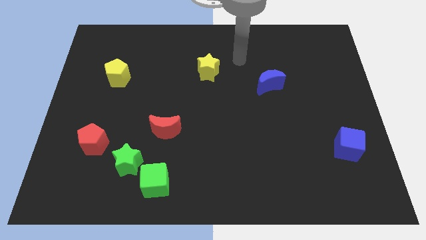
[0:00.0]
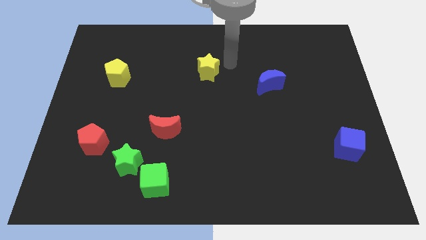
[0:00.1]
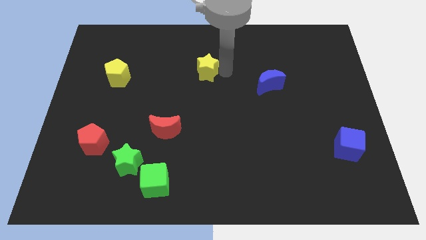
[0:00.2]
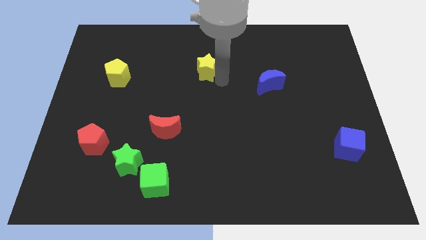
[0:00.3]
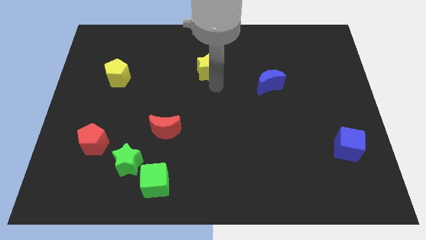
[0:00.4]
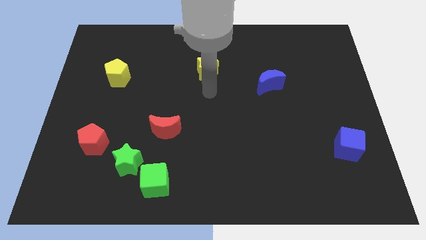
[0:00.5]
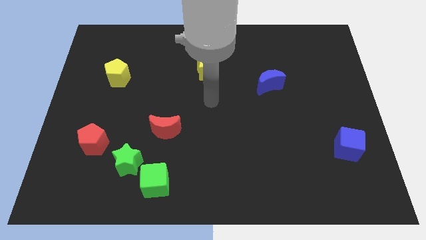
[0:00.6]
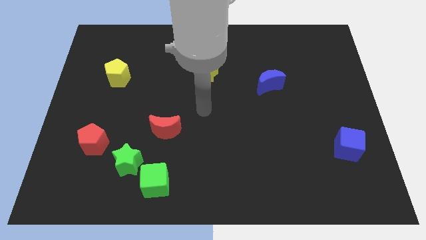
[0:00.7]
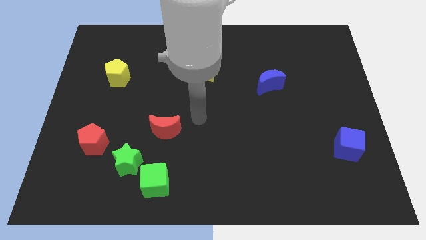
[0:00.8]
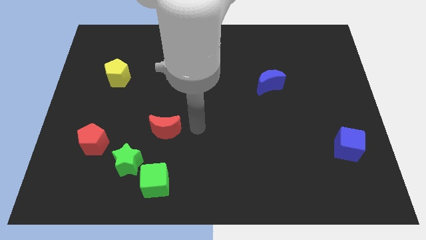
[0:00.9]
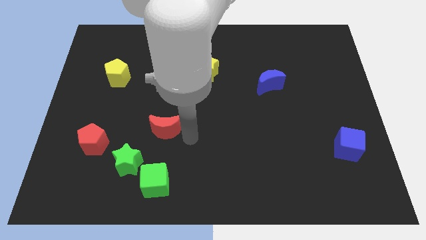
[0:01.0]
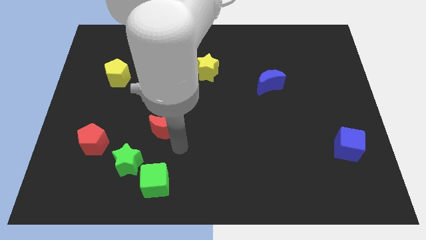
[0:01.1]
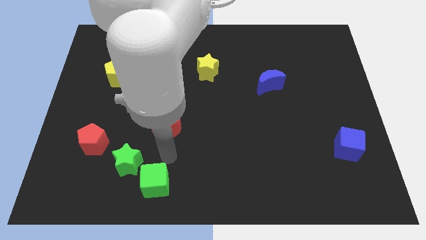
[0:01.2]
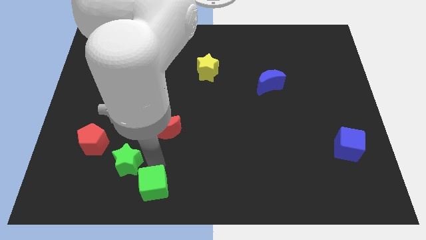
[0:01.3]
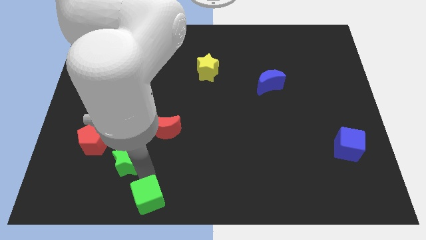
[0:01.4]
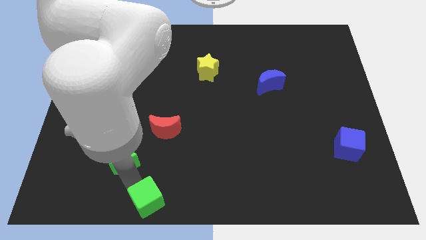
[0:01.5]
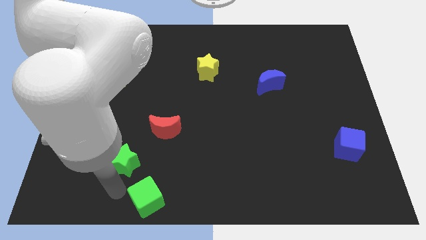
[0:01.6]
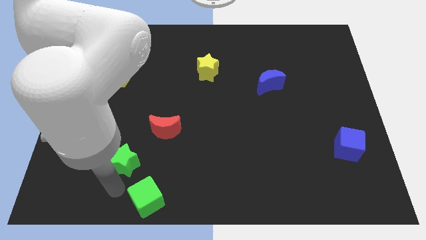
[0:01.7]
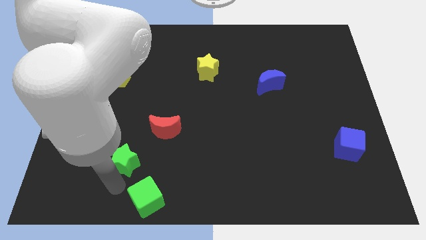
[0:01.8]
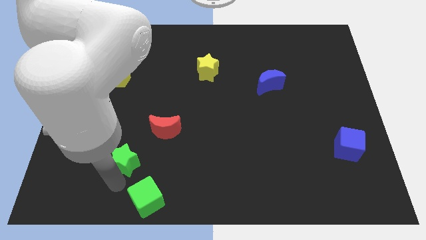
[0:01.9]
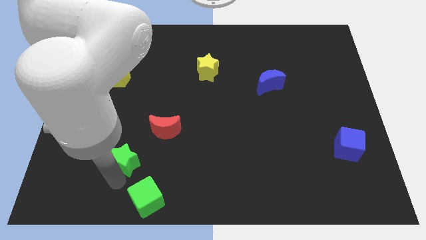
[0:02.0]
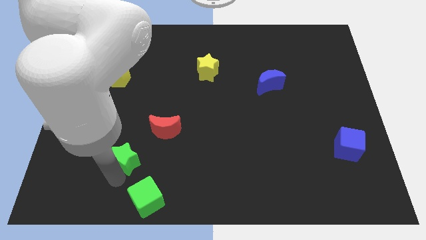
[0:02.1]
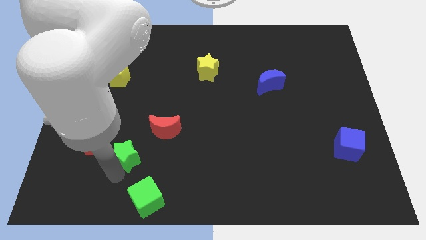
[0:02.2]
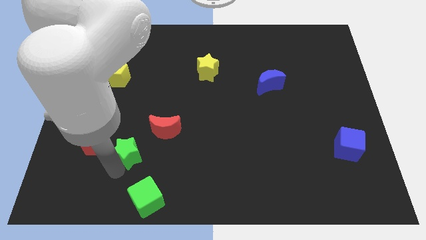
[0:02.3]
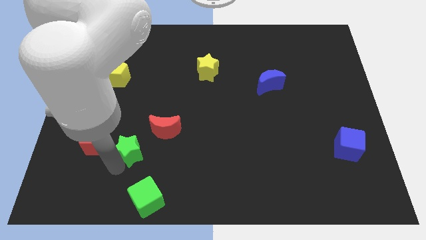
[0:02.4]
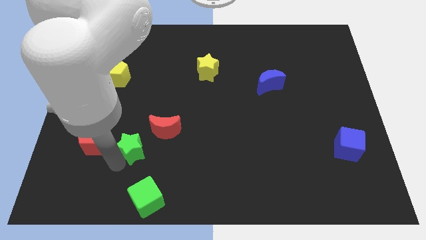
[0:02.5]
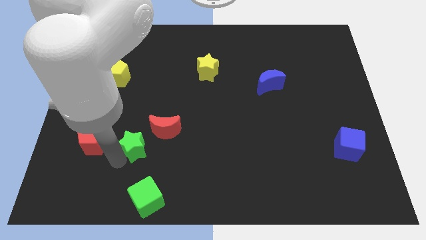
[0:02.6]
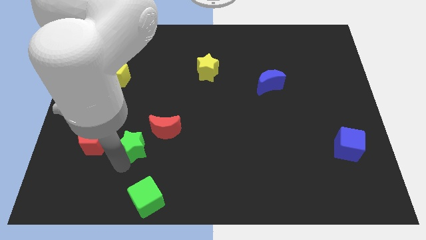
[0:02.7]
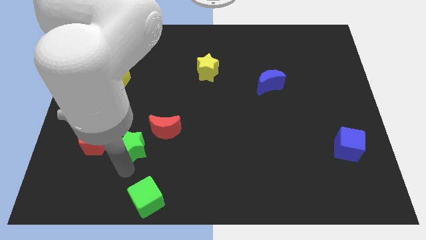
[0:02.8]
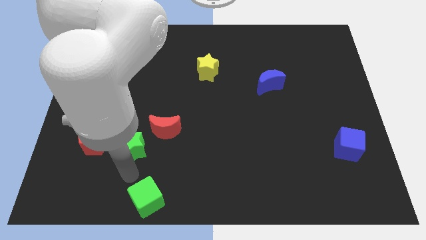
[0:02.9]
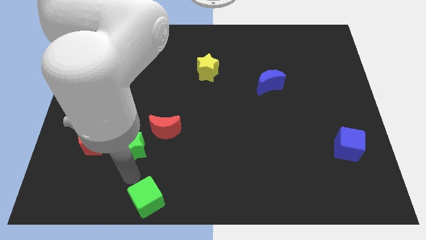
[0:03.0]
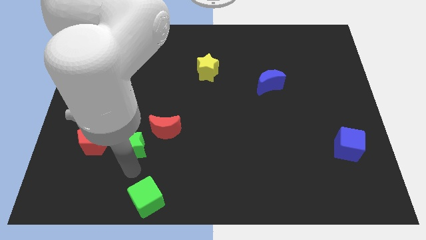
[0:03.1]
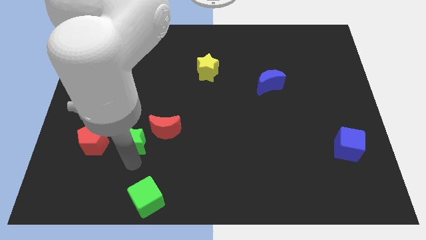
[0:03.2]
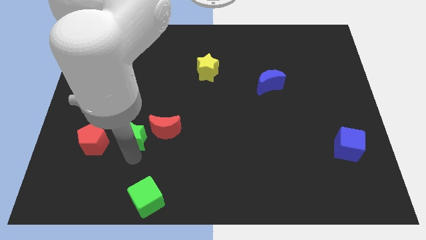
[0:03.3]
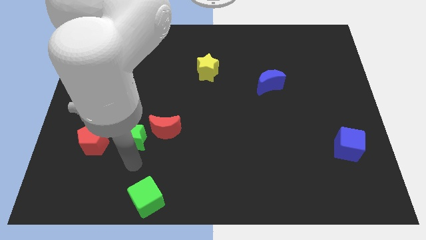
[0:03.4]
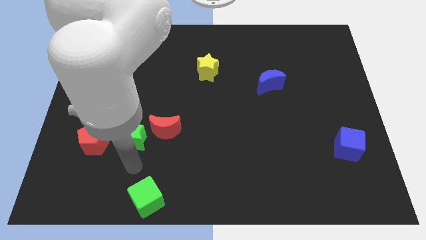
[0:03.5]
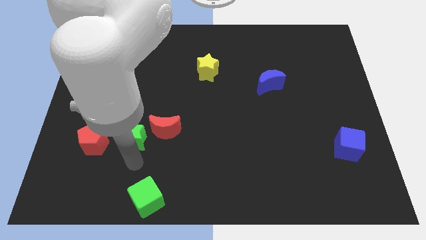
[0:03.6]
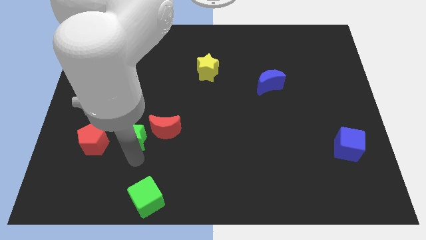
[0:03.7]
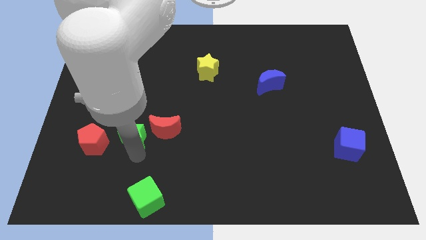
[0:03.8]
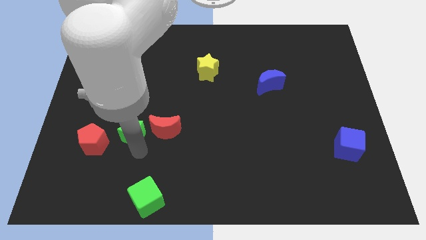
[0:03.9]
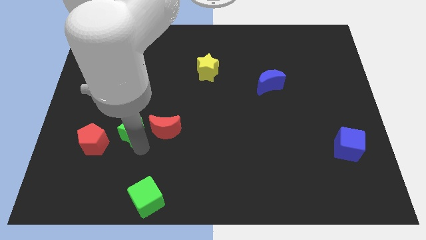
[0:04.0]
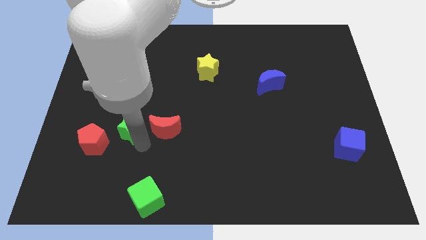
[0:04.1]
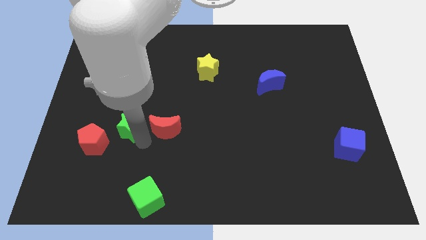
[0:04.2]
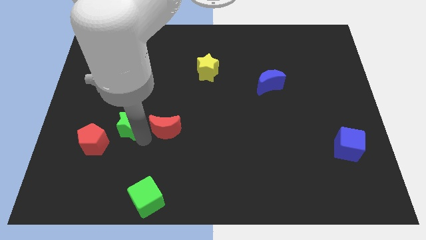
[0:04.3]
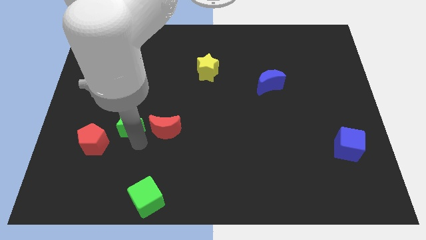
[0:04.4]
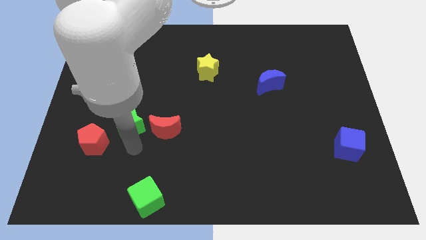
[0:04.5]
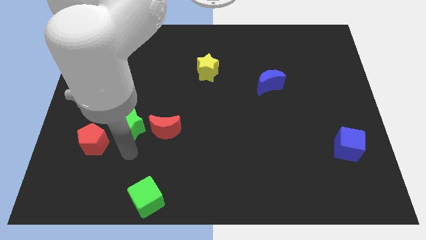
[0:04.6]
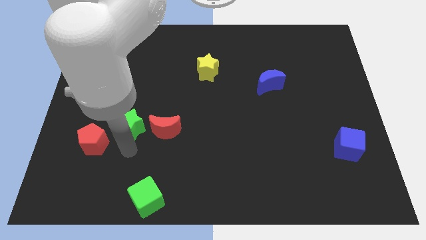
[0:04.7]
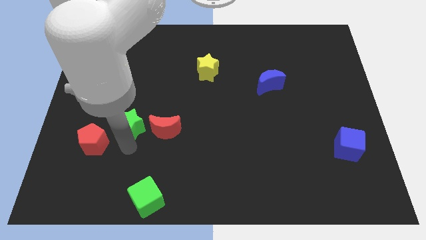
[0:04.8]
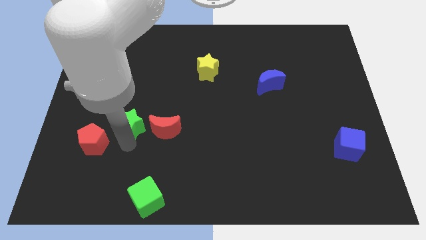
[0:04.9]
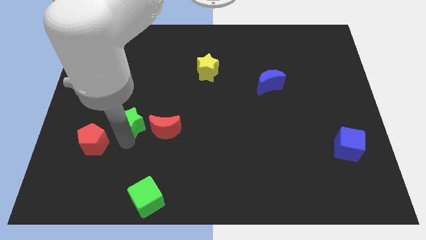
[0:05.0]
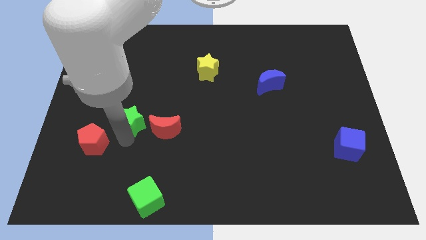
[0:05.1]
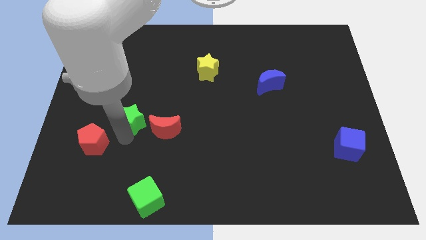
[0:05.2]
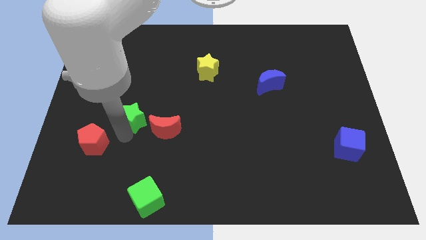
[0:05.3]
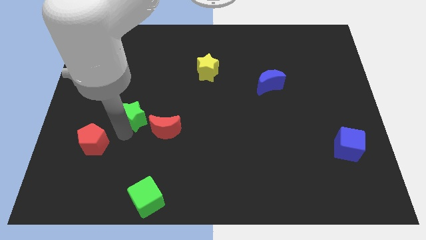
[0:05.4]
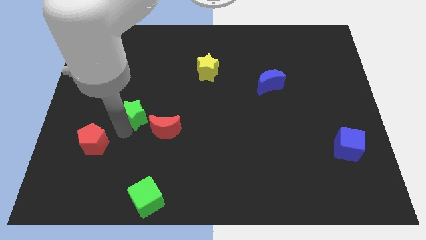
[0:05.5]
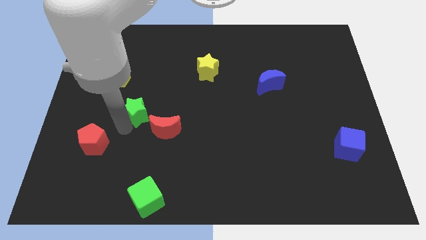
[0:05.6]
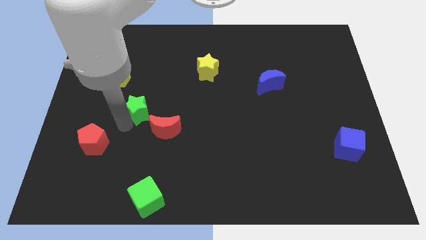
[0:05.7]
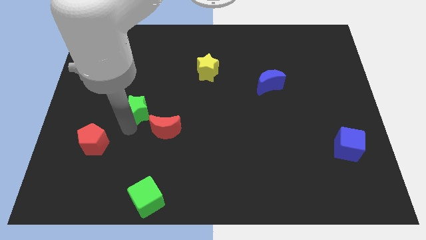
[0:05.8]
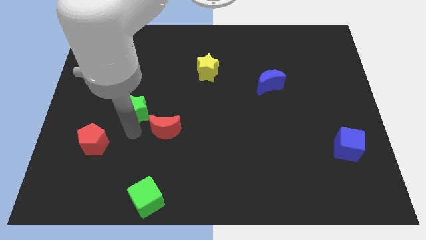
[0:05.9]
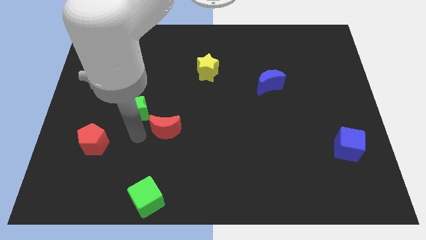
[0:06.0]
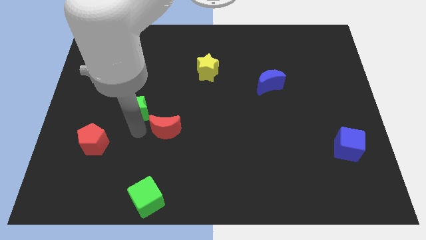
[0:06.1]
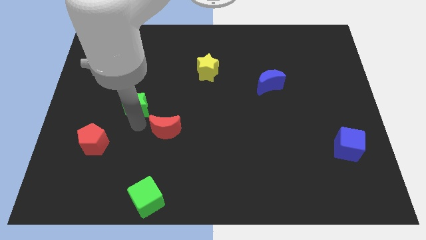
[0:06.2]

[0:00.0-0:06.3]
put the green star to the bottom right of the yellow pentagon

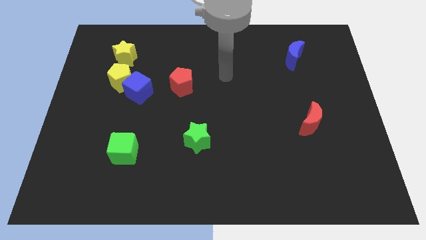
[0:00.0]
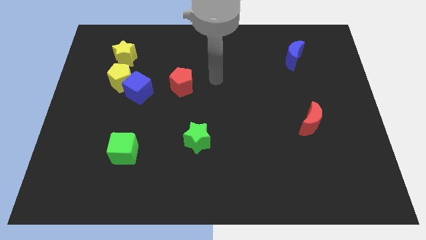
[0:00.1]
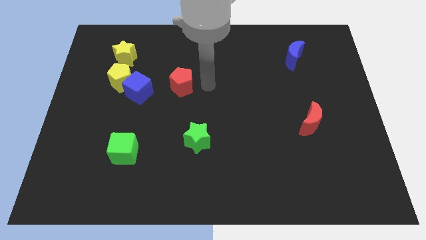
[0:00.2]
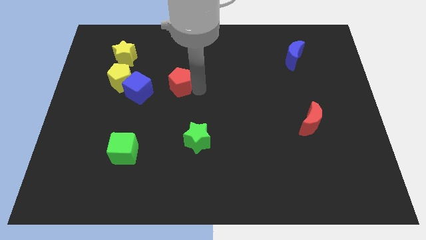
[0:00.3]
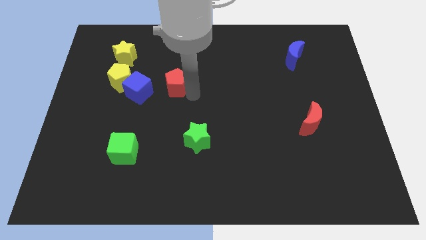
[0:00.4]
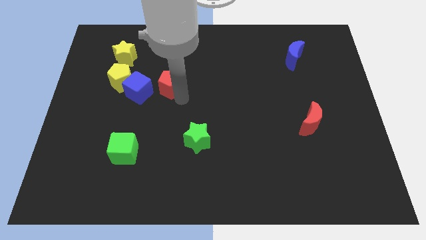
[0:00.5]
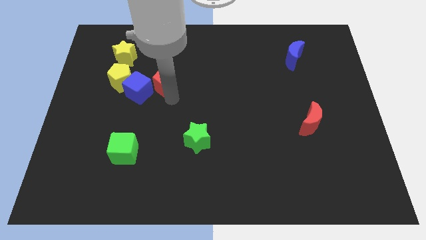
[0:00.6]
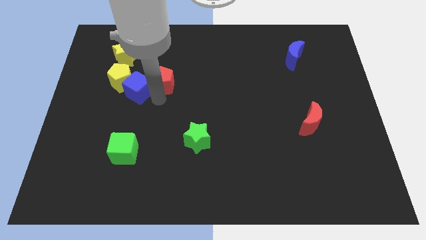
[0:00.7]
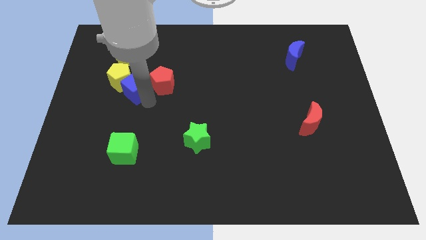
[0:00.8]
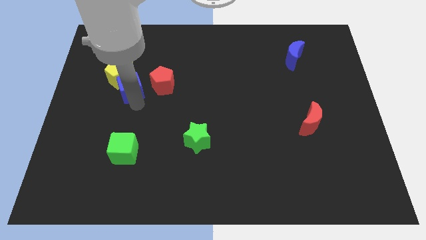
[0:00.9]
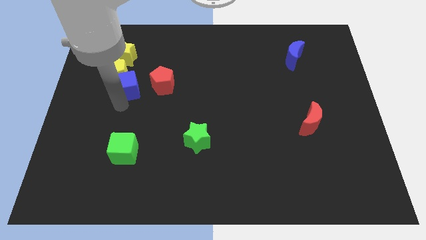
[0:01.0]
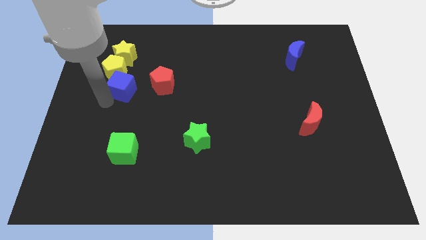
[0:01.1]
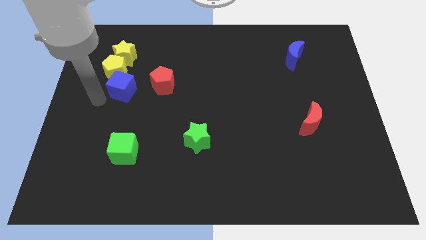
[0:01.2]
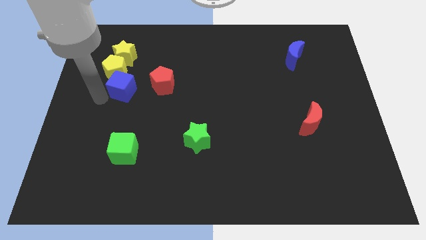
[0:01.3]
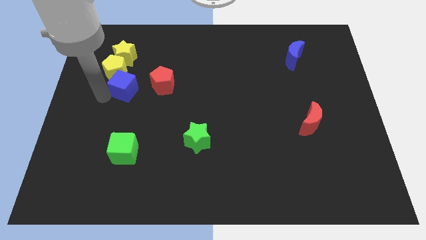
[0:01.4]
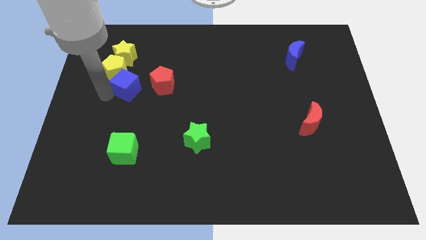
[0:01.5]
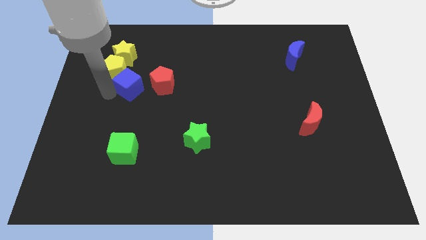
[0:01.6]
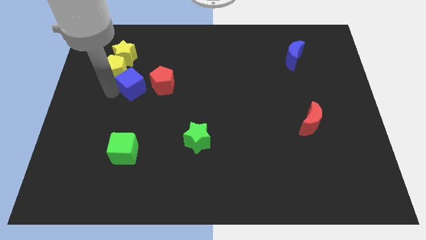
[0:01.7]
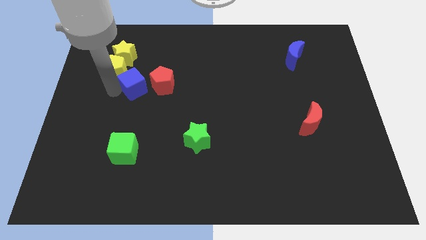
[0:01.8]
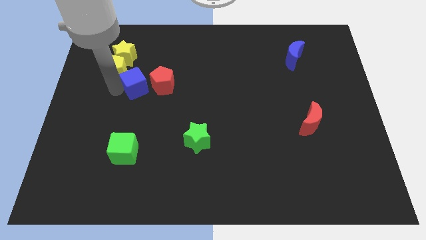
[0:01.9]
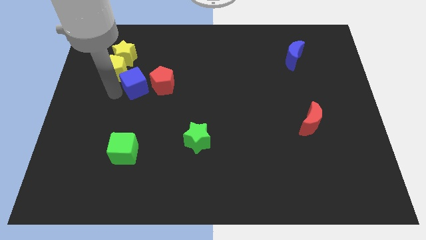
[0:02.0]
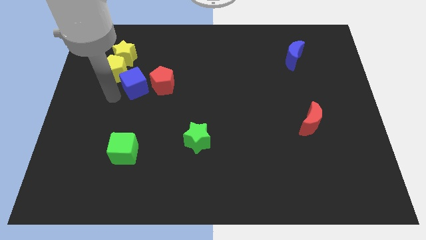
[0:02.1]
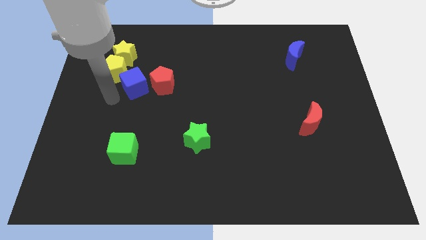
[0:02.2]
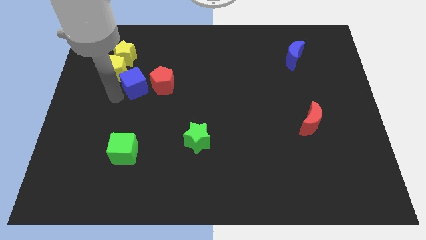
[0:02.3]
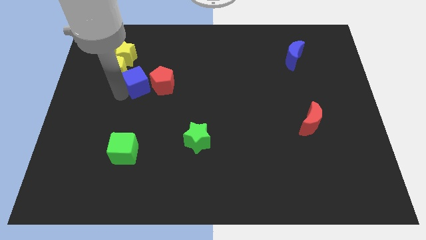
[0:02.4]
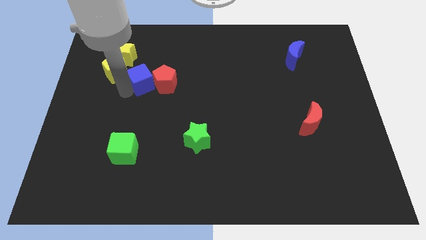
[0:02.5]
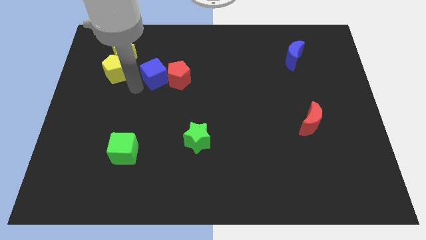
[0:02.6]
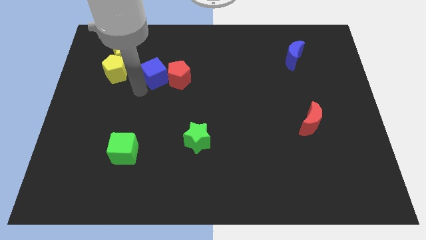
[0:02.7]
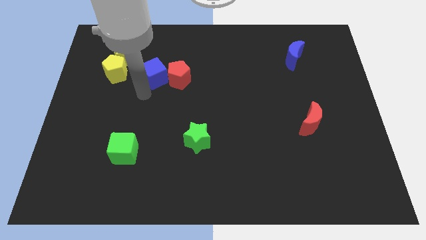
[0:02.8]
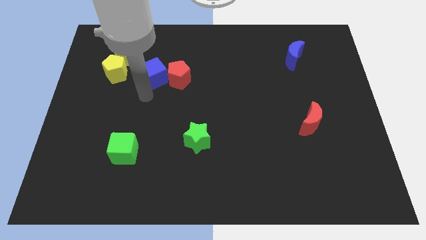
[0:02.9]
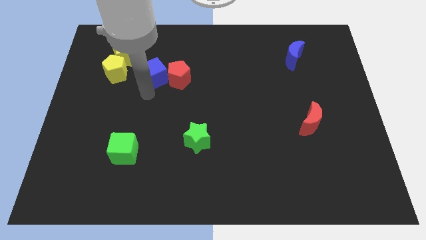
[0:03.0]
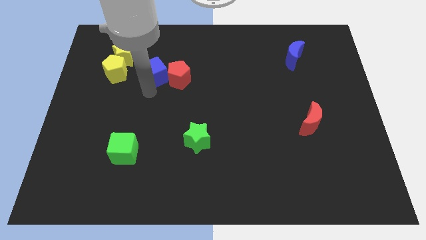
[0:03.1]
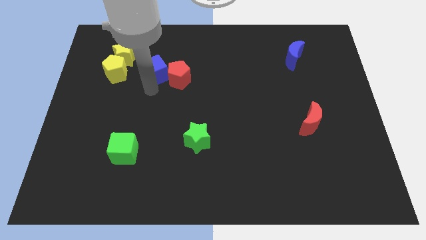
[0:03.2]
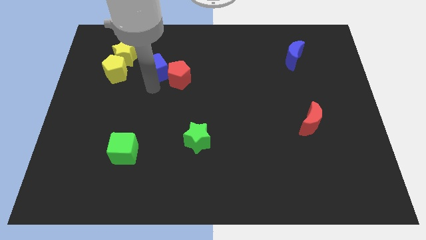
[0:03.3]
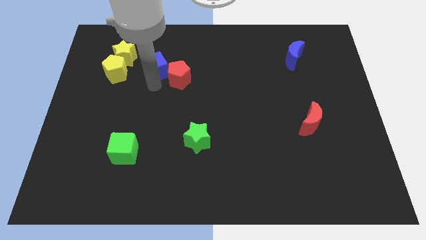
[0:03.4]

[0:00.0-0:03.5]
push the blue cube to the right side of the yellow star
